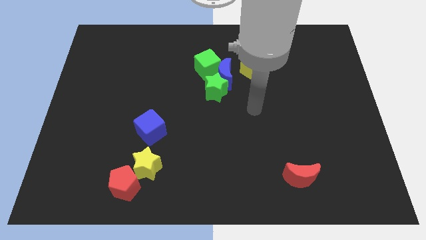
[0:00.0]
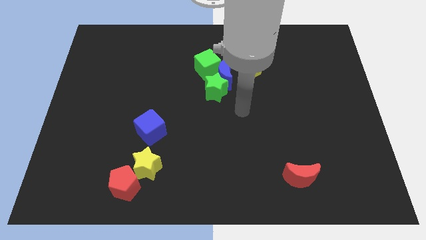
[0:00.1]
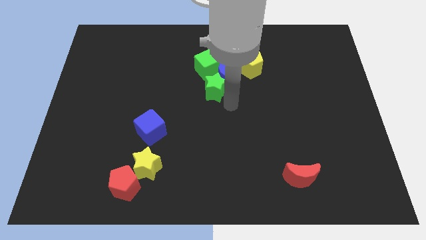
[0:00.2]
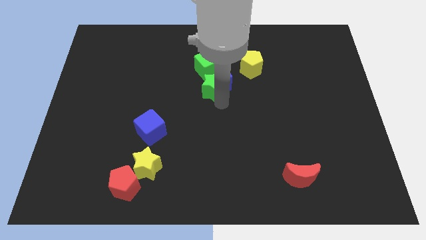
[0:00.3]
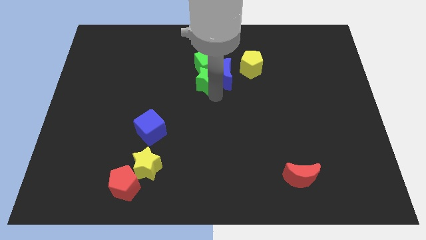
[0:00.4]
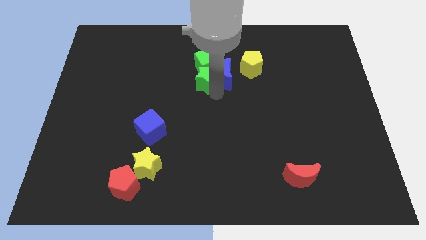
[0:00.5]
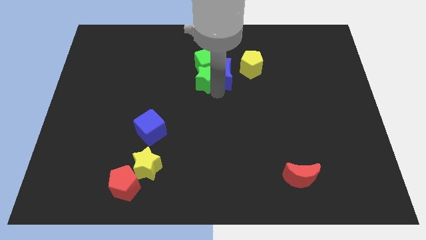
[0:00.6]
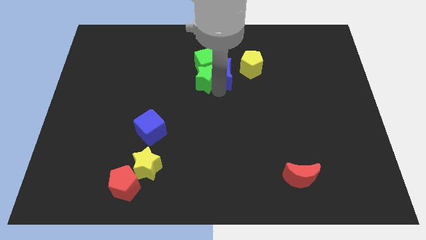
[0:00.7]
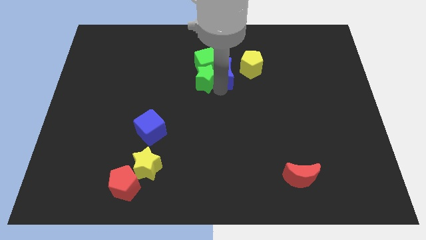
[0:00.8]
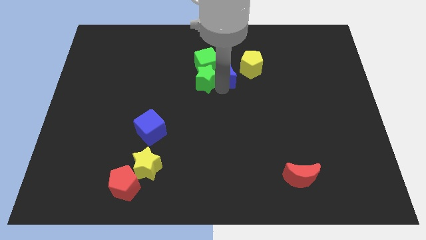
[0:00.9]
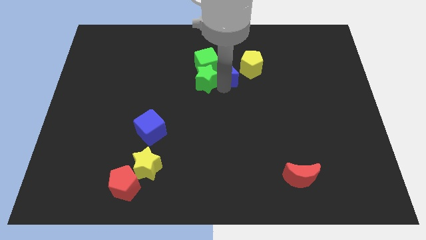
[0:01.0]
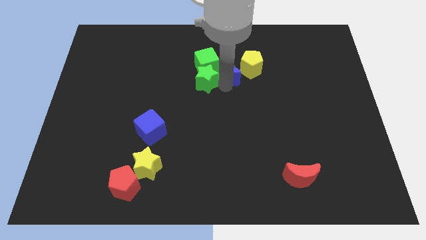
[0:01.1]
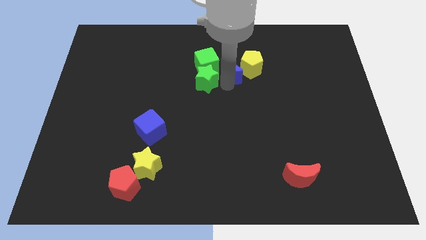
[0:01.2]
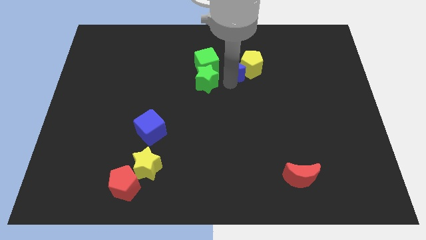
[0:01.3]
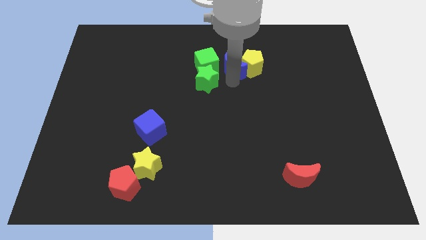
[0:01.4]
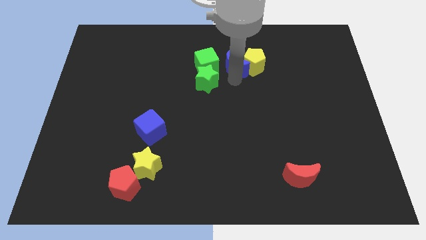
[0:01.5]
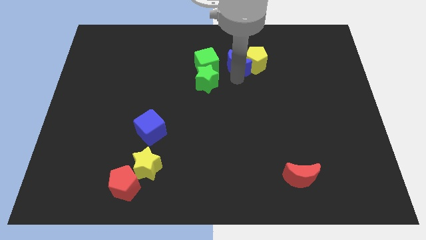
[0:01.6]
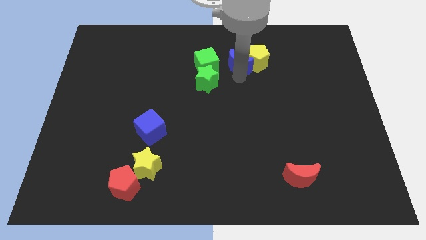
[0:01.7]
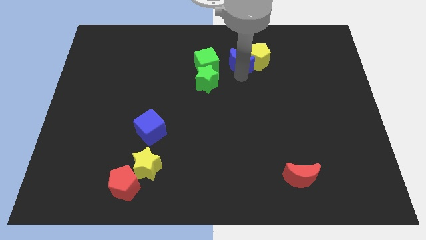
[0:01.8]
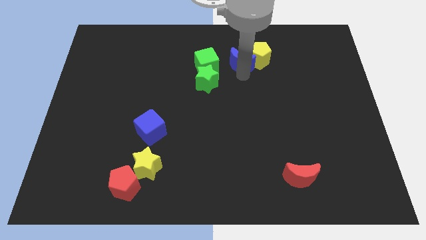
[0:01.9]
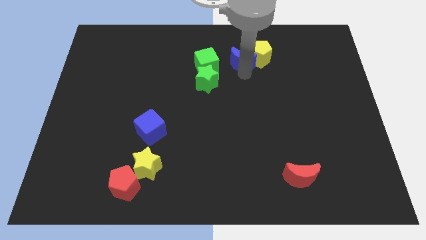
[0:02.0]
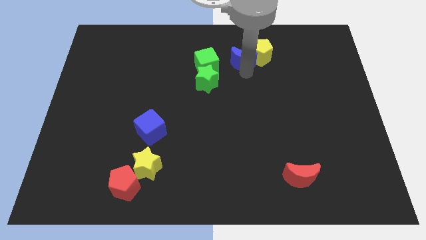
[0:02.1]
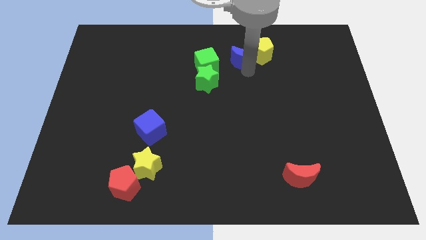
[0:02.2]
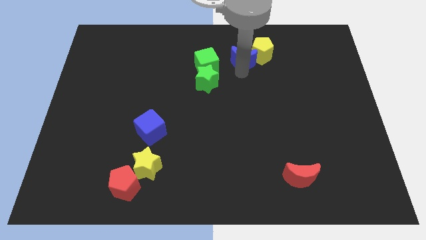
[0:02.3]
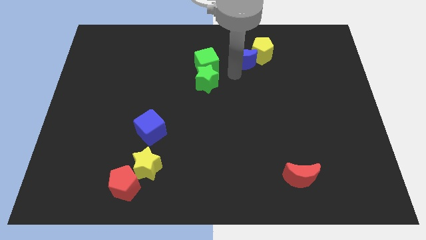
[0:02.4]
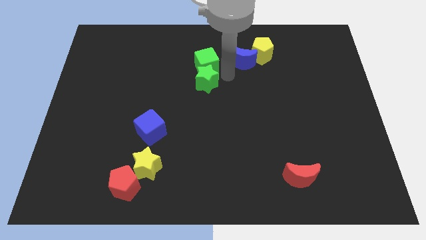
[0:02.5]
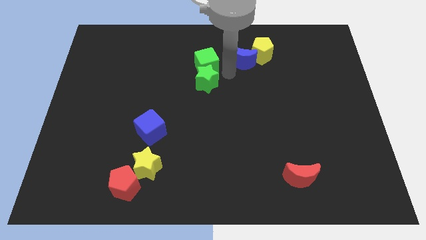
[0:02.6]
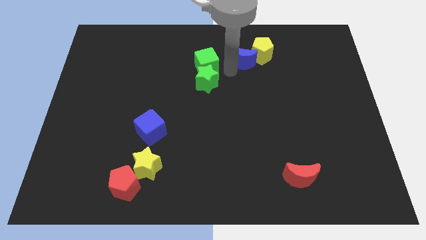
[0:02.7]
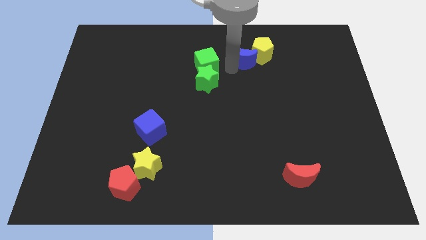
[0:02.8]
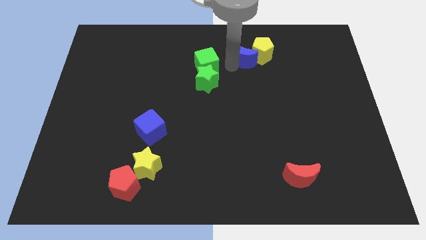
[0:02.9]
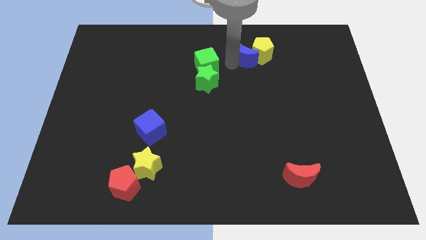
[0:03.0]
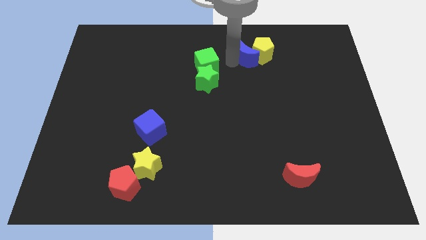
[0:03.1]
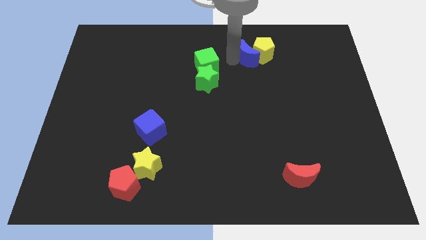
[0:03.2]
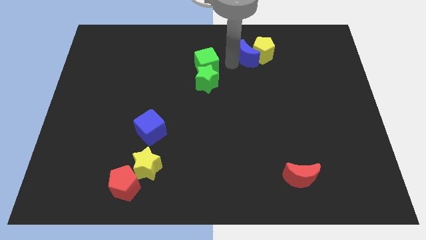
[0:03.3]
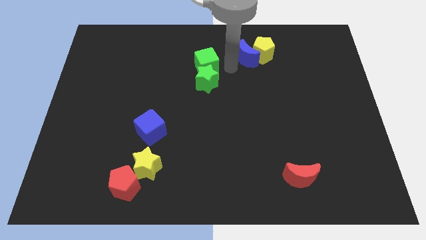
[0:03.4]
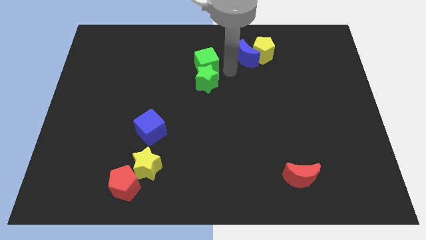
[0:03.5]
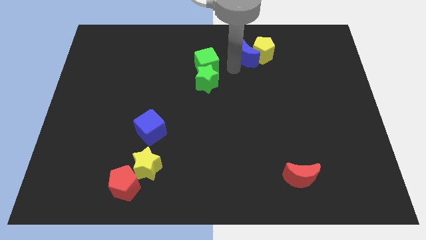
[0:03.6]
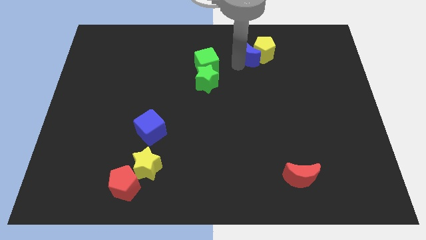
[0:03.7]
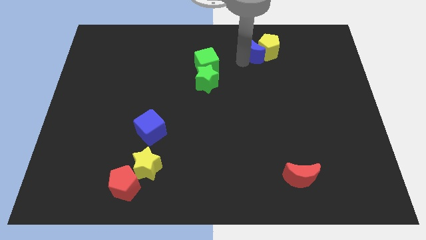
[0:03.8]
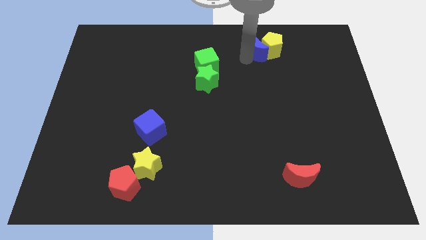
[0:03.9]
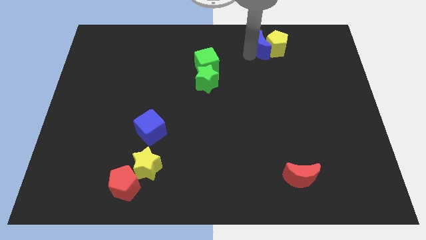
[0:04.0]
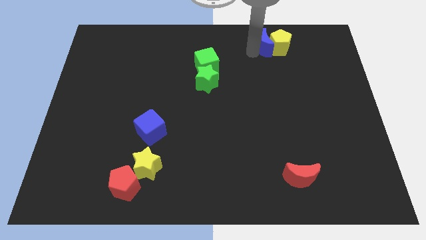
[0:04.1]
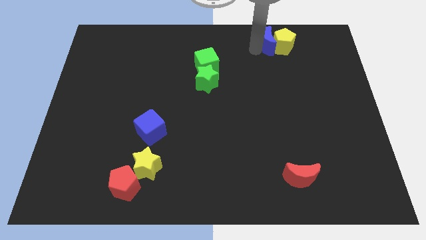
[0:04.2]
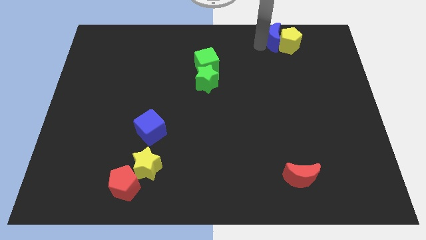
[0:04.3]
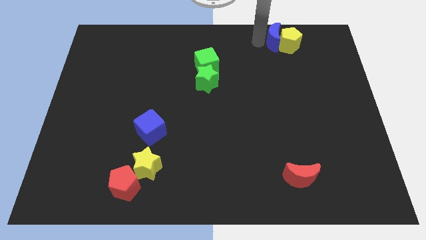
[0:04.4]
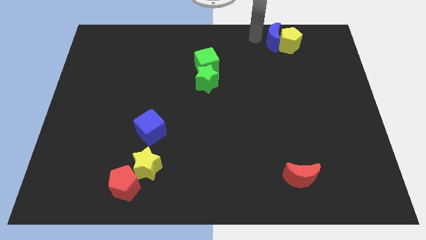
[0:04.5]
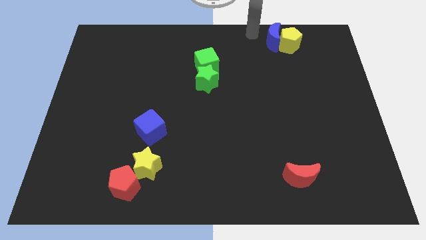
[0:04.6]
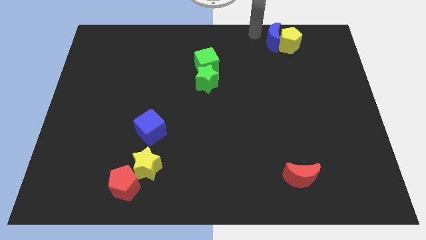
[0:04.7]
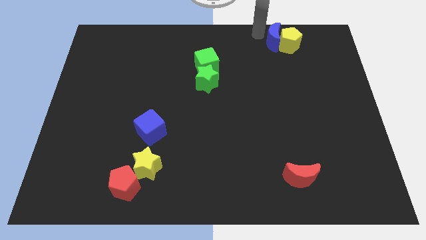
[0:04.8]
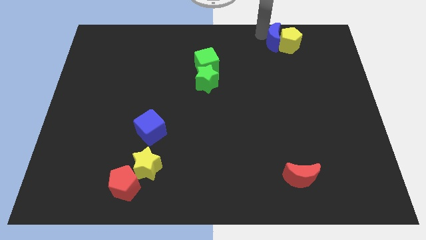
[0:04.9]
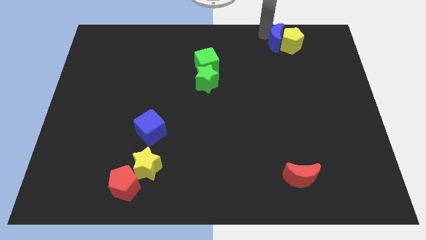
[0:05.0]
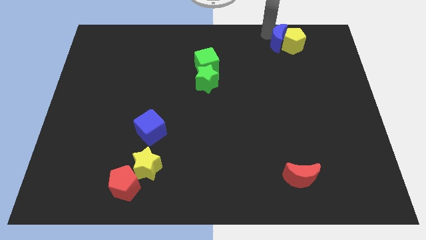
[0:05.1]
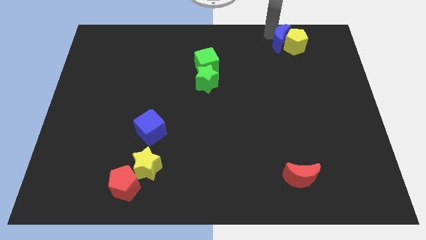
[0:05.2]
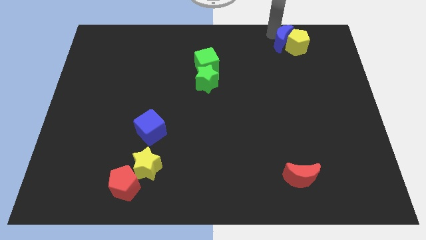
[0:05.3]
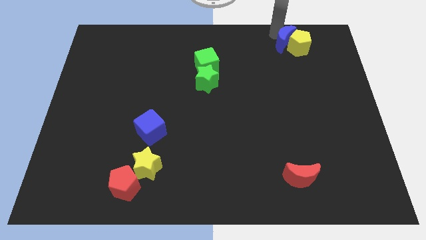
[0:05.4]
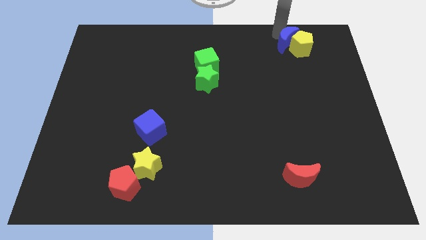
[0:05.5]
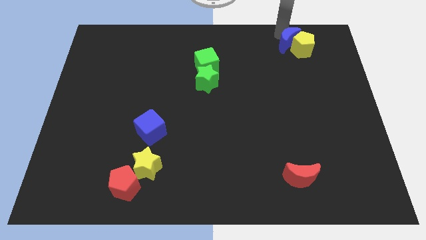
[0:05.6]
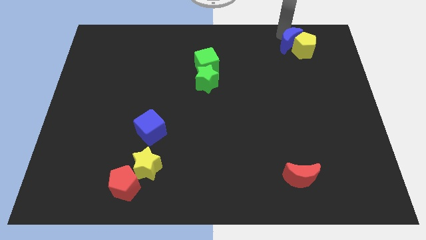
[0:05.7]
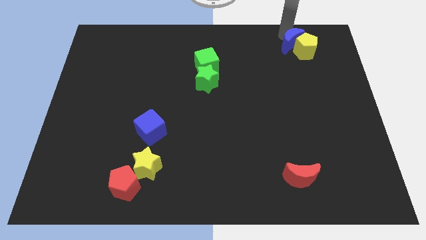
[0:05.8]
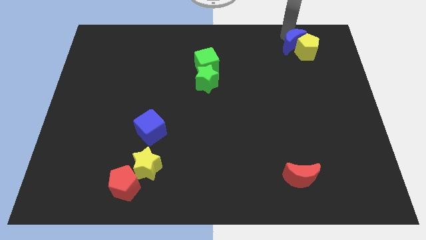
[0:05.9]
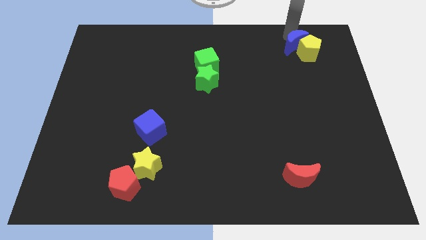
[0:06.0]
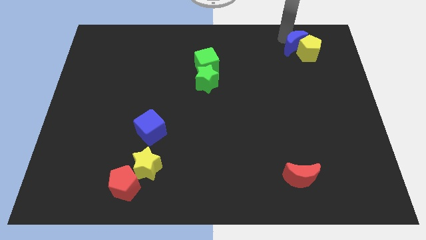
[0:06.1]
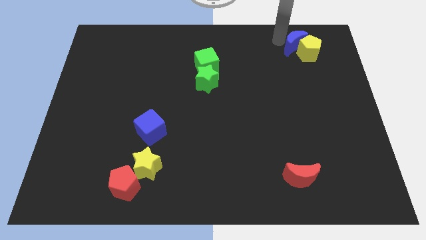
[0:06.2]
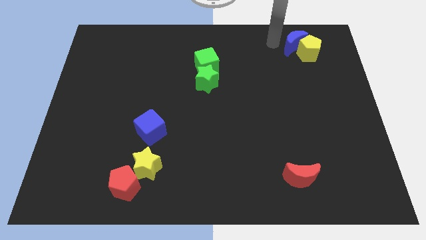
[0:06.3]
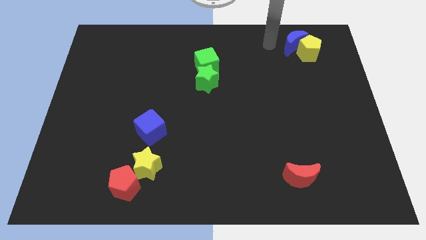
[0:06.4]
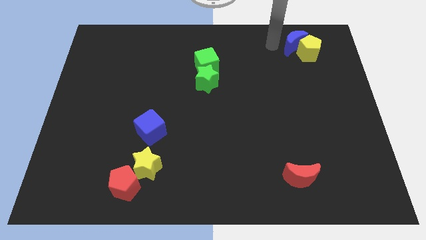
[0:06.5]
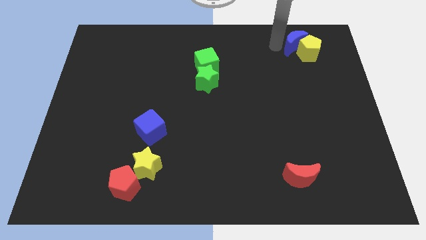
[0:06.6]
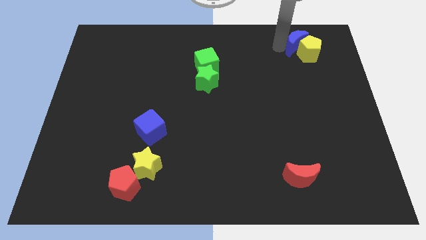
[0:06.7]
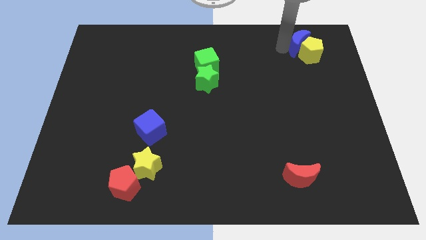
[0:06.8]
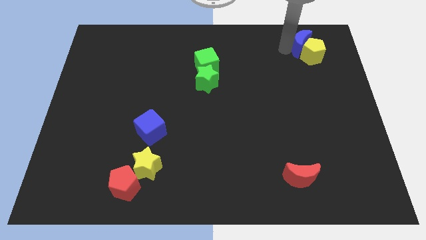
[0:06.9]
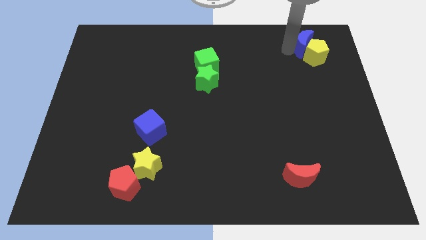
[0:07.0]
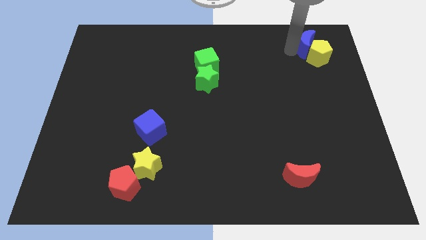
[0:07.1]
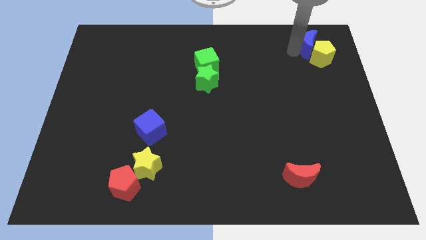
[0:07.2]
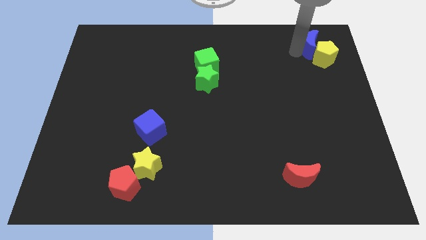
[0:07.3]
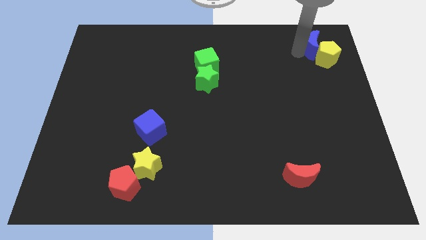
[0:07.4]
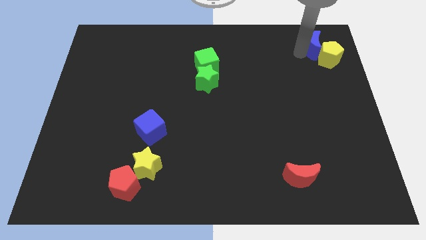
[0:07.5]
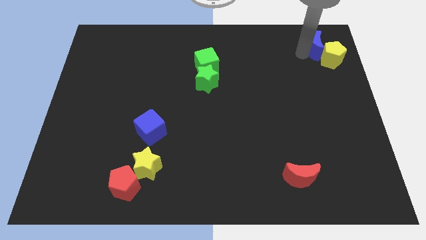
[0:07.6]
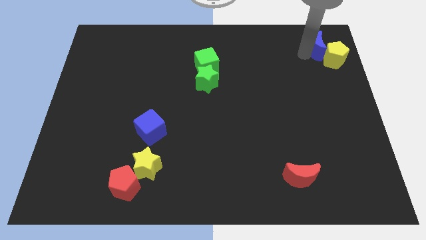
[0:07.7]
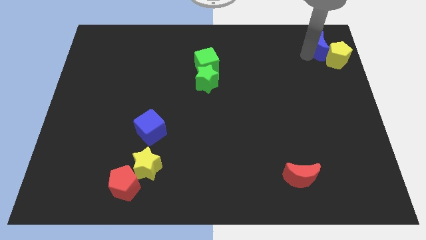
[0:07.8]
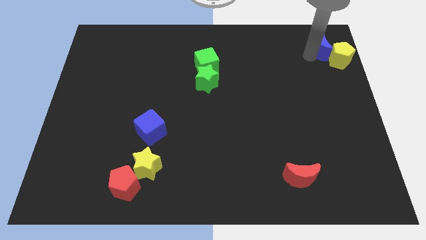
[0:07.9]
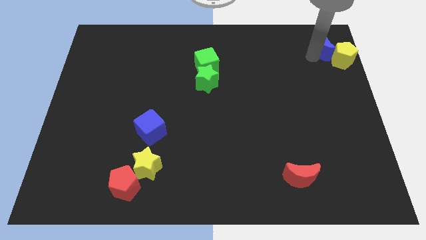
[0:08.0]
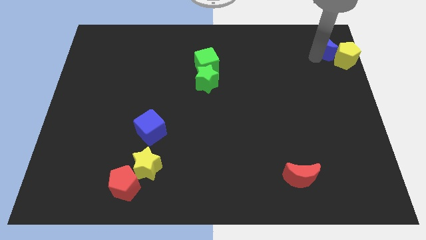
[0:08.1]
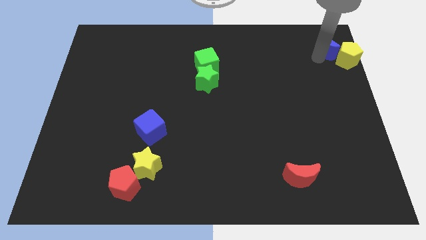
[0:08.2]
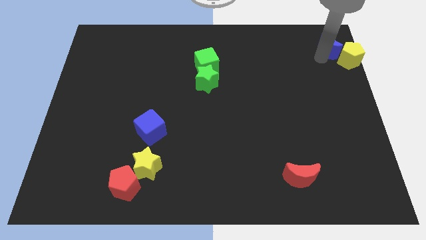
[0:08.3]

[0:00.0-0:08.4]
move the blue moon to the top right
